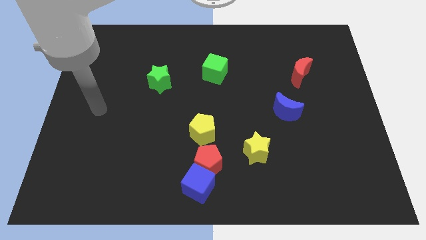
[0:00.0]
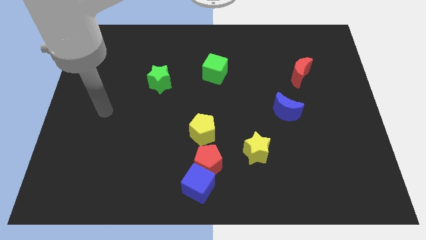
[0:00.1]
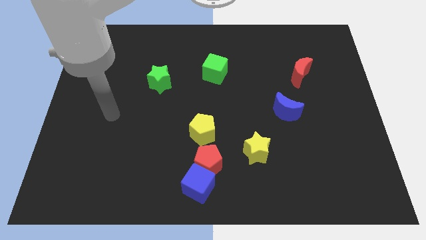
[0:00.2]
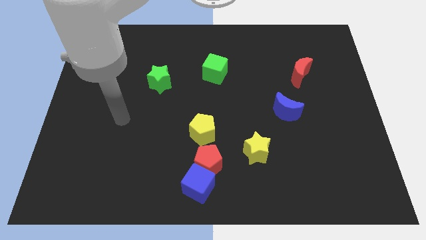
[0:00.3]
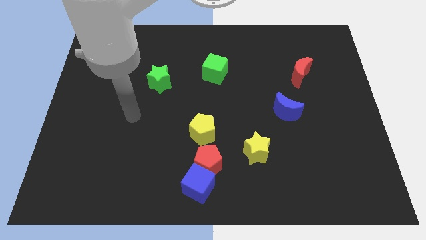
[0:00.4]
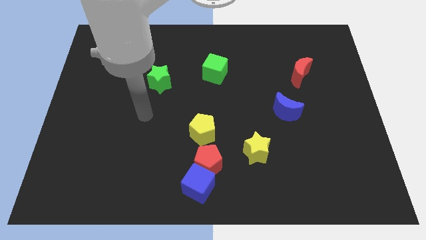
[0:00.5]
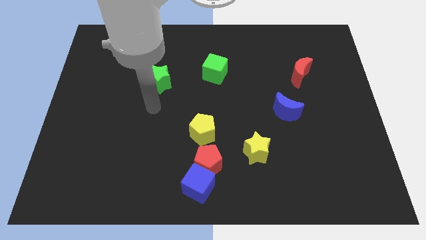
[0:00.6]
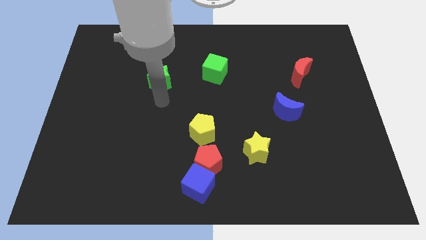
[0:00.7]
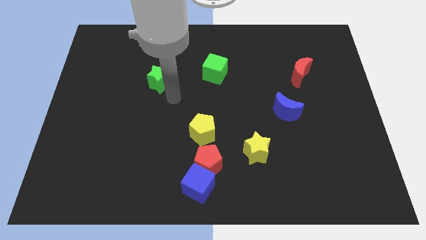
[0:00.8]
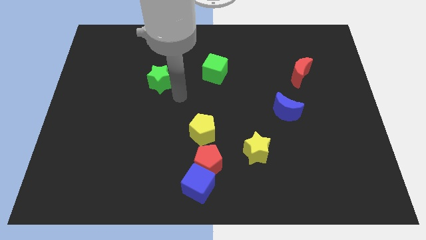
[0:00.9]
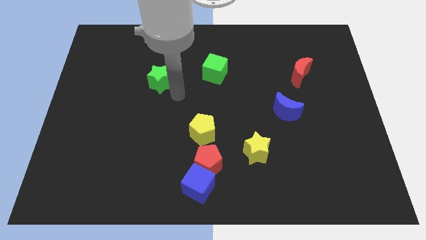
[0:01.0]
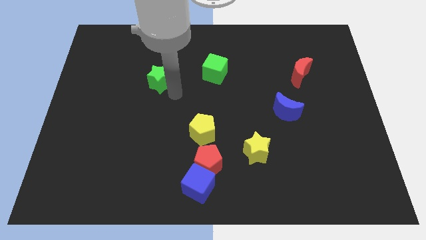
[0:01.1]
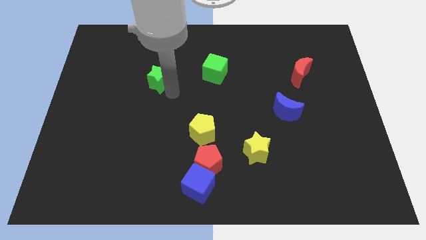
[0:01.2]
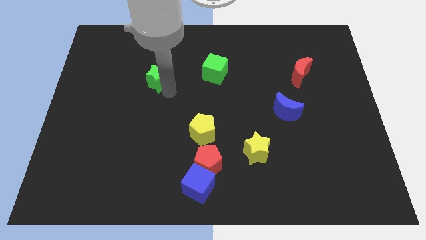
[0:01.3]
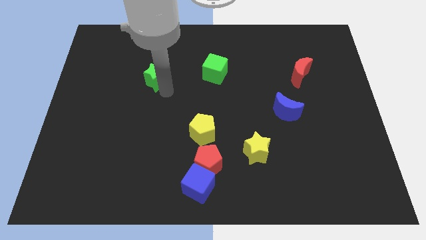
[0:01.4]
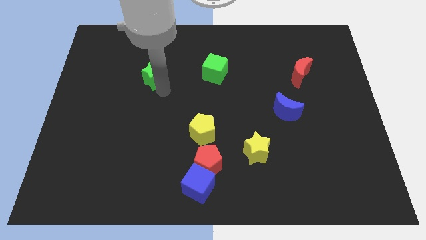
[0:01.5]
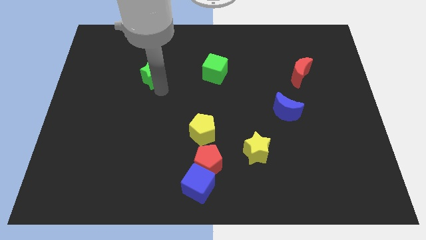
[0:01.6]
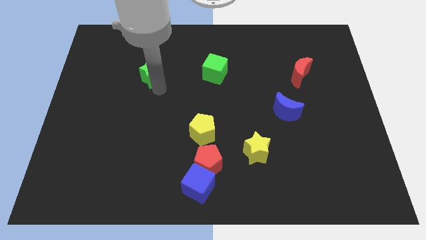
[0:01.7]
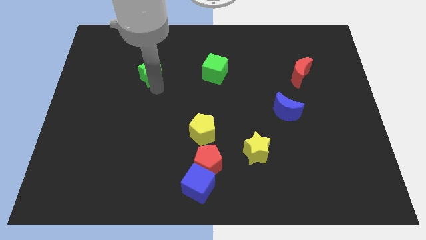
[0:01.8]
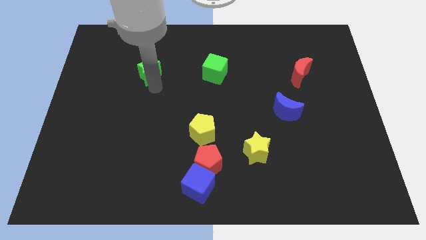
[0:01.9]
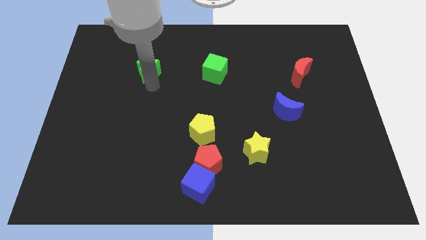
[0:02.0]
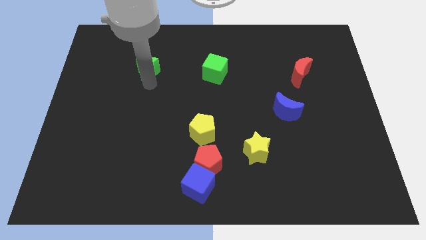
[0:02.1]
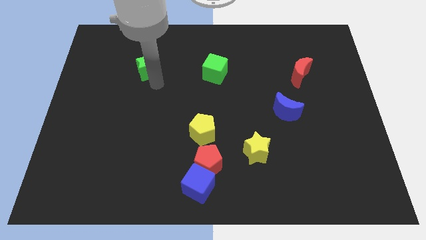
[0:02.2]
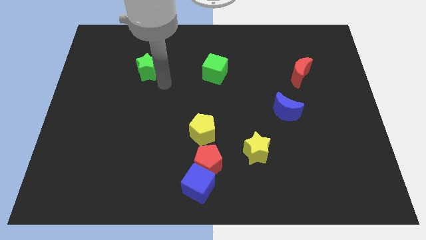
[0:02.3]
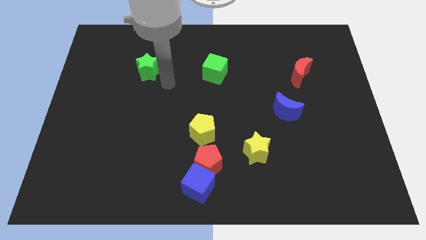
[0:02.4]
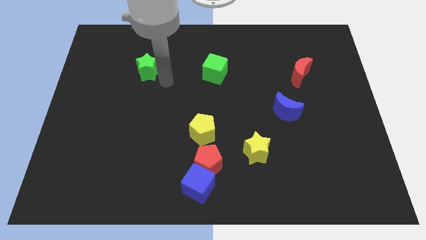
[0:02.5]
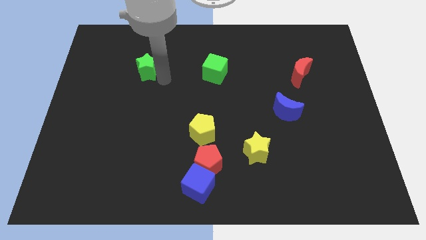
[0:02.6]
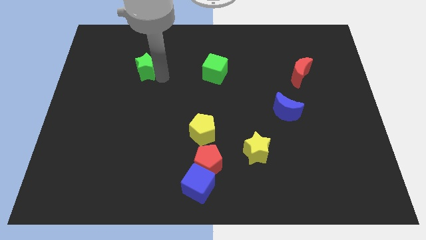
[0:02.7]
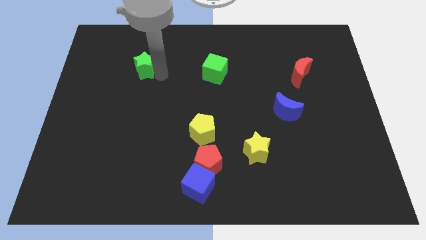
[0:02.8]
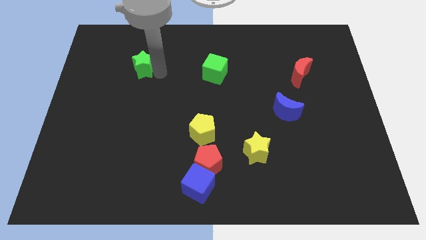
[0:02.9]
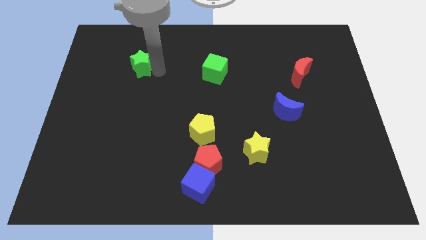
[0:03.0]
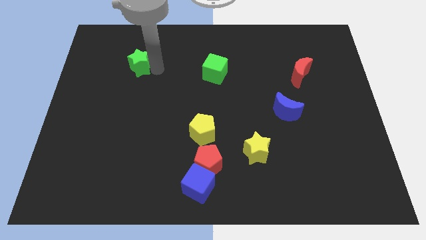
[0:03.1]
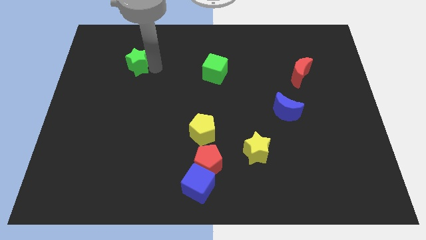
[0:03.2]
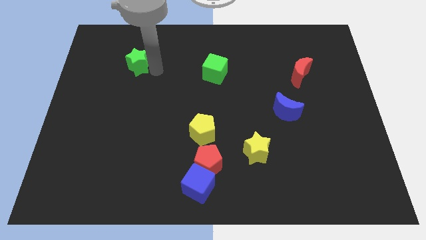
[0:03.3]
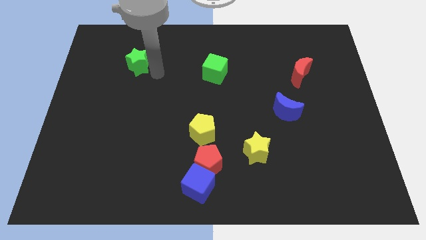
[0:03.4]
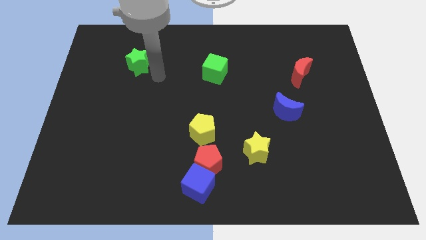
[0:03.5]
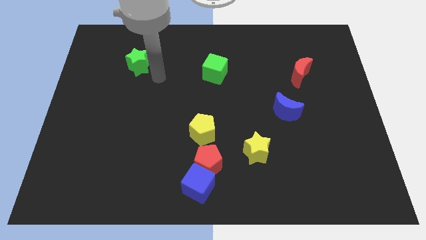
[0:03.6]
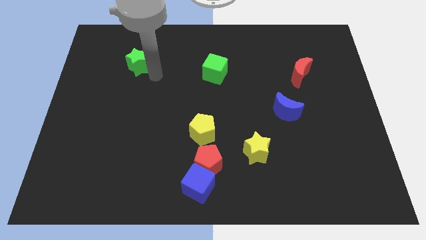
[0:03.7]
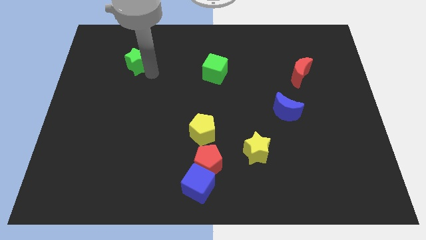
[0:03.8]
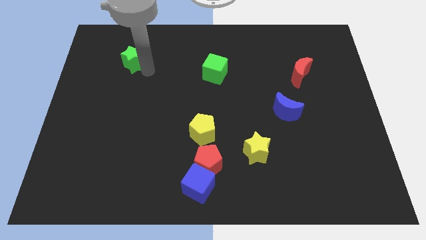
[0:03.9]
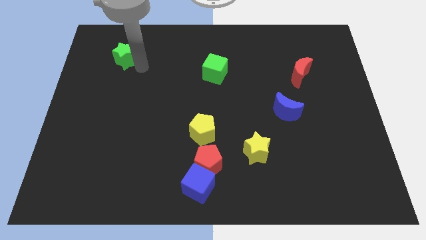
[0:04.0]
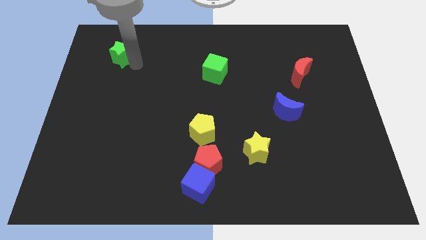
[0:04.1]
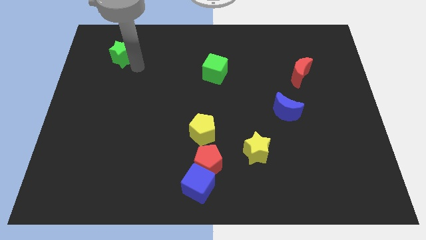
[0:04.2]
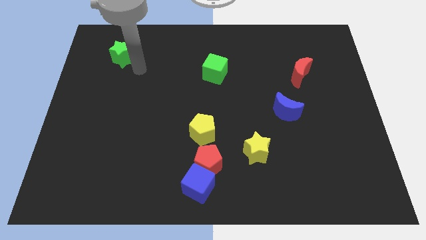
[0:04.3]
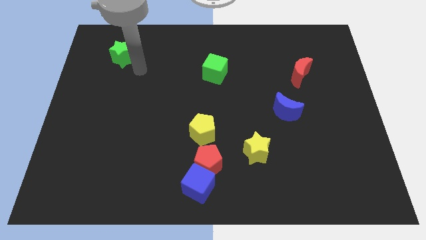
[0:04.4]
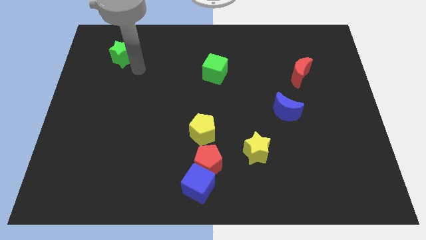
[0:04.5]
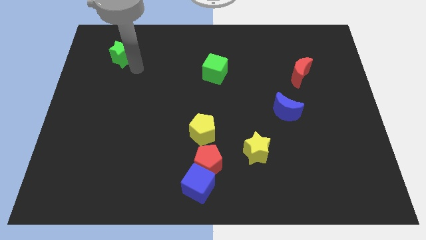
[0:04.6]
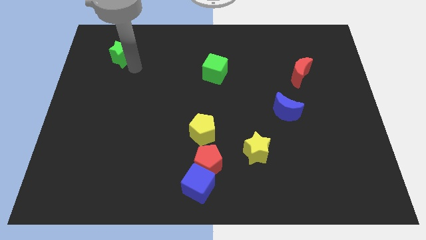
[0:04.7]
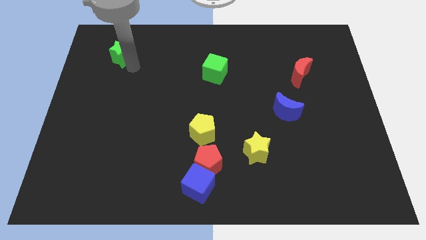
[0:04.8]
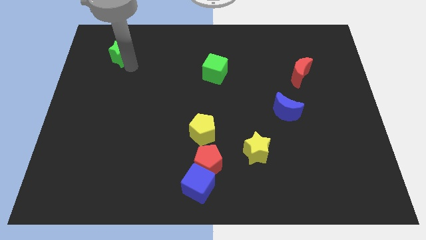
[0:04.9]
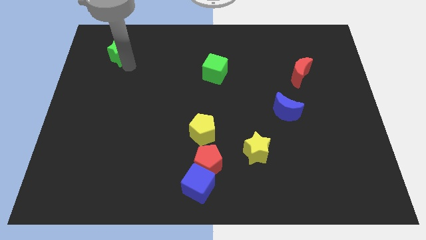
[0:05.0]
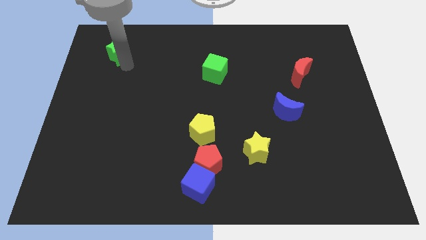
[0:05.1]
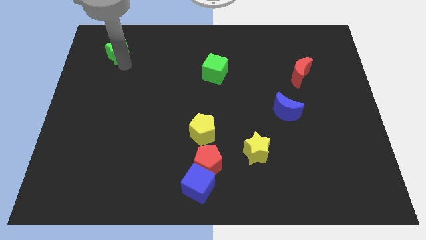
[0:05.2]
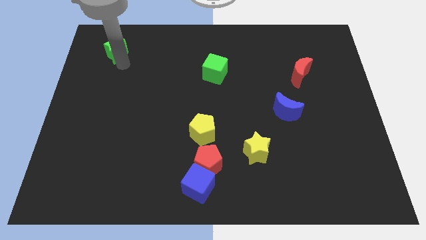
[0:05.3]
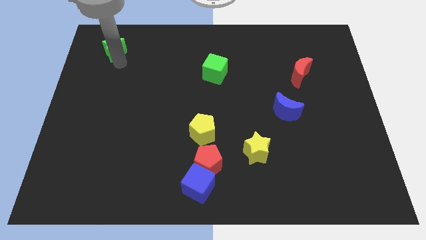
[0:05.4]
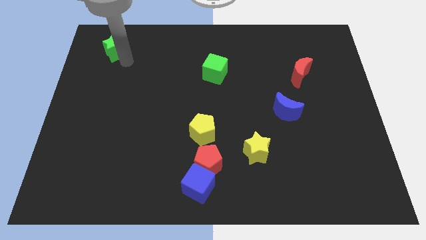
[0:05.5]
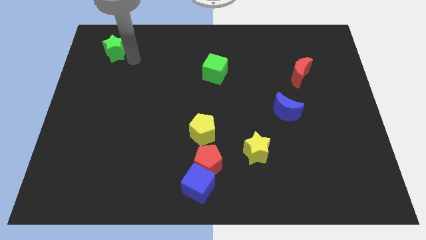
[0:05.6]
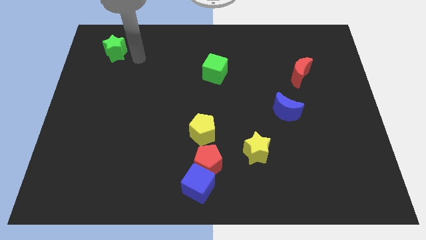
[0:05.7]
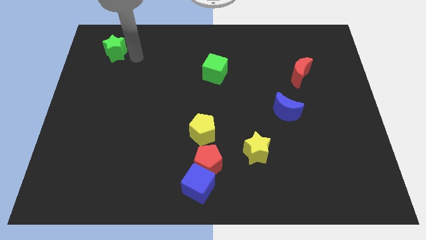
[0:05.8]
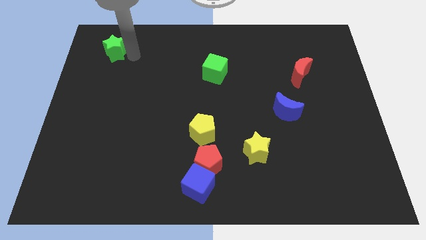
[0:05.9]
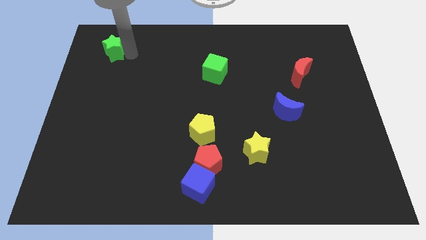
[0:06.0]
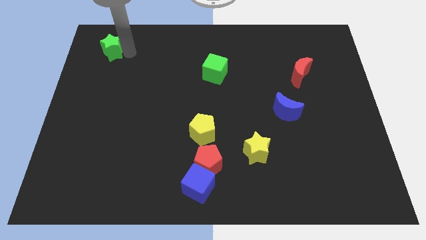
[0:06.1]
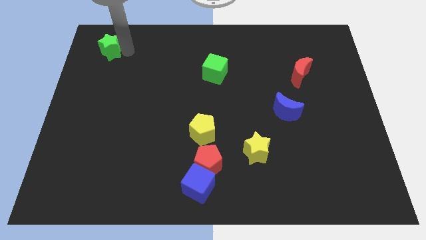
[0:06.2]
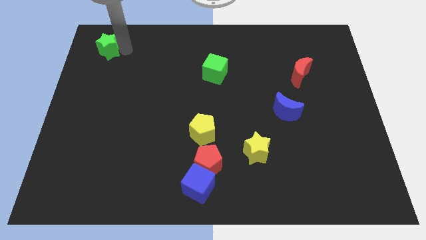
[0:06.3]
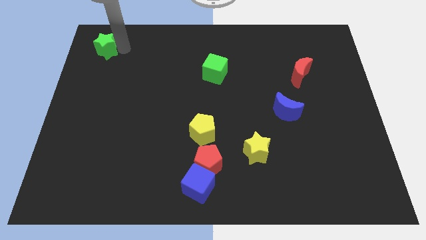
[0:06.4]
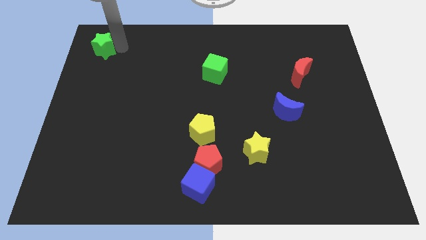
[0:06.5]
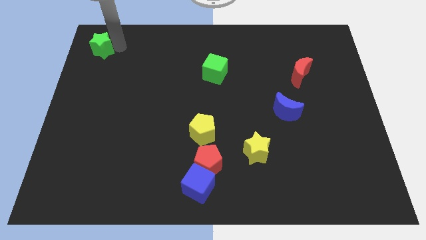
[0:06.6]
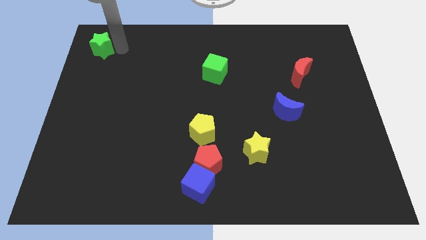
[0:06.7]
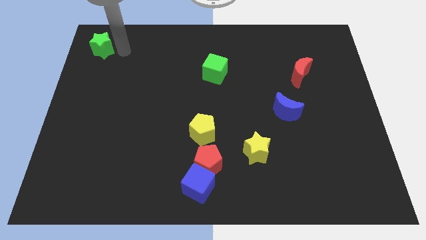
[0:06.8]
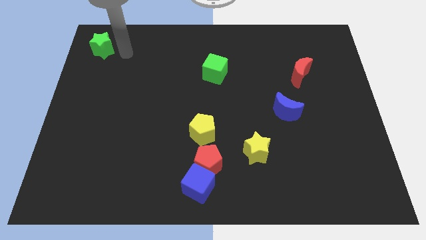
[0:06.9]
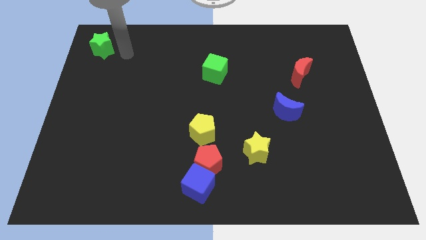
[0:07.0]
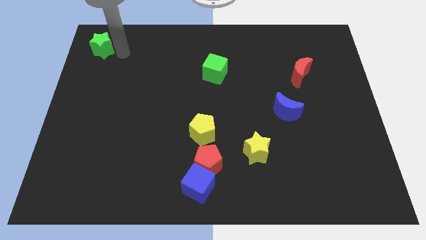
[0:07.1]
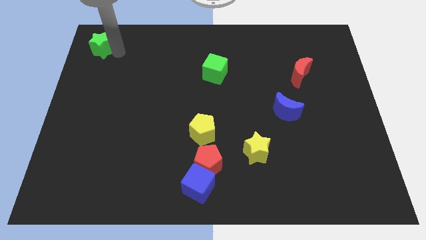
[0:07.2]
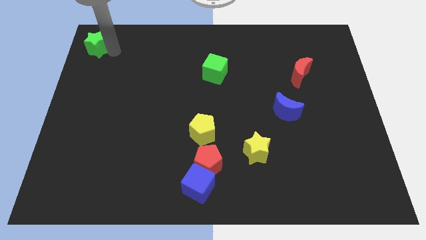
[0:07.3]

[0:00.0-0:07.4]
move the green star to the top left corner
